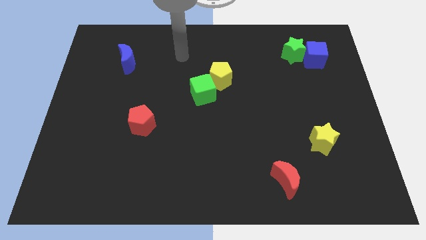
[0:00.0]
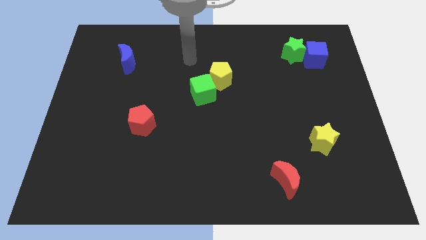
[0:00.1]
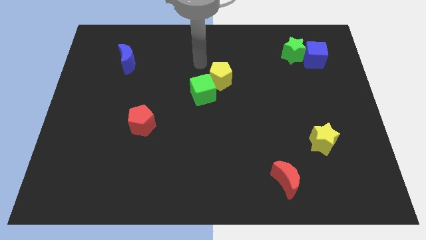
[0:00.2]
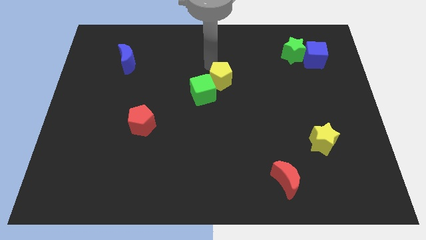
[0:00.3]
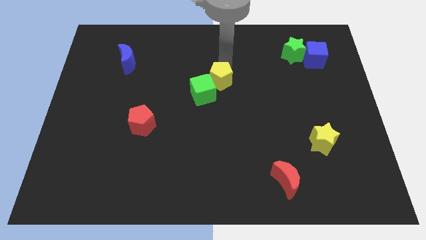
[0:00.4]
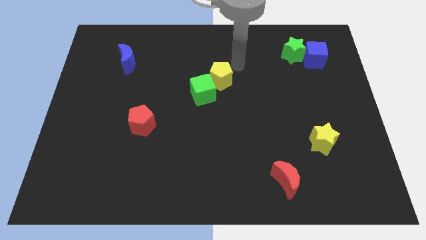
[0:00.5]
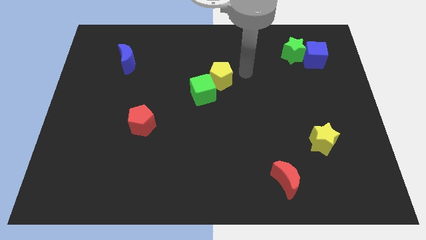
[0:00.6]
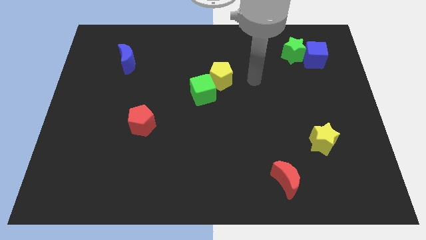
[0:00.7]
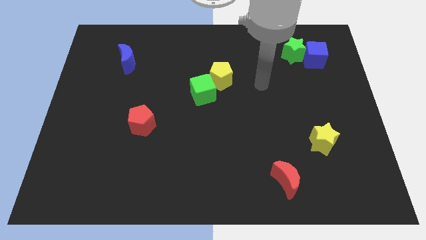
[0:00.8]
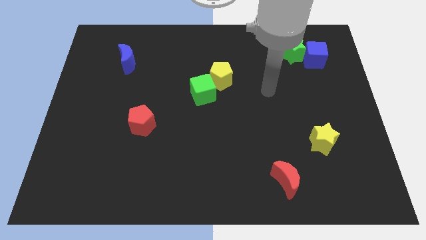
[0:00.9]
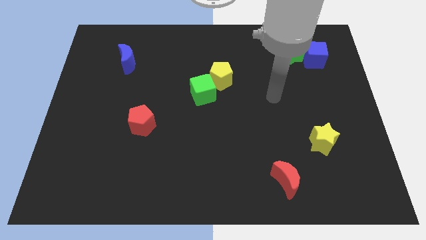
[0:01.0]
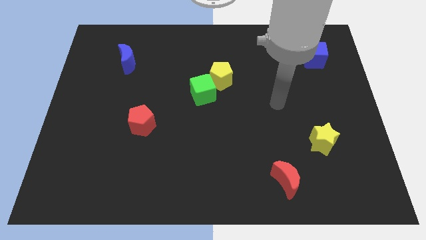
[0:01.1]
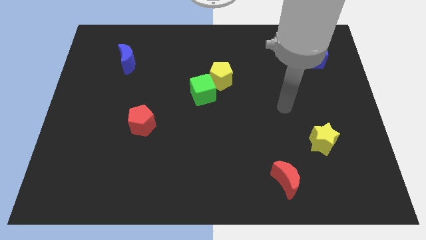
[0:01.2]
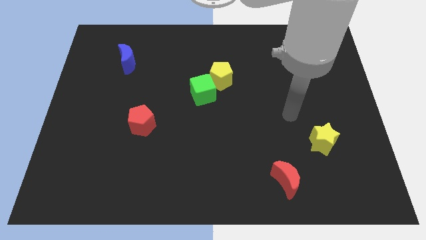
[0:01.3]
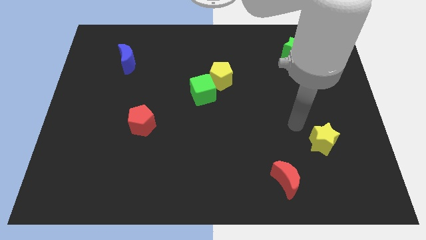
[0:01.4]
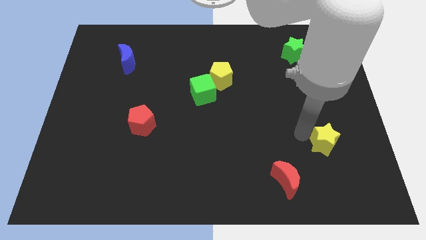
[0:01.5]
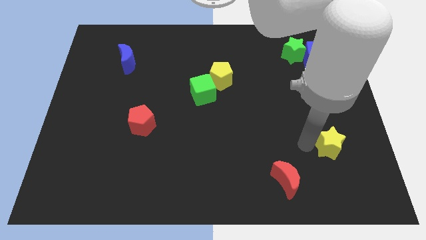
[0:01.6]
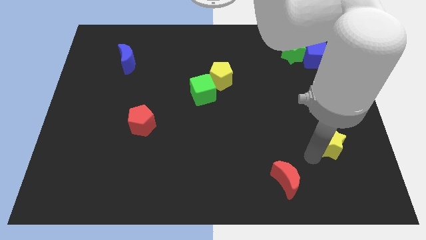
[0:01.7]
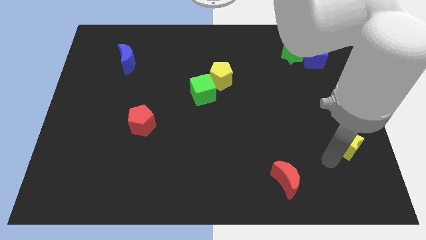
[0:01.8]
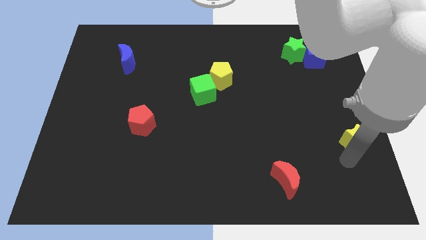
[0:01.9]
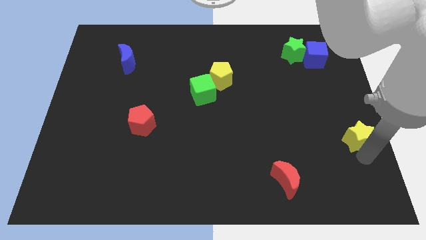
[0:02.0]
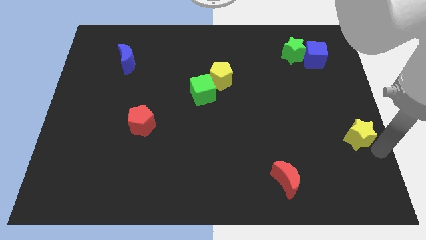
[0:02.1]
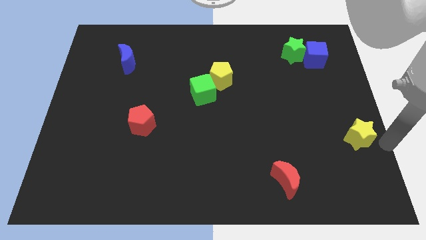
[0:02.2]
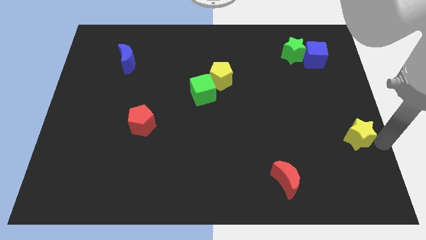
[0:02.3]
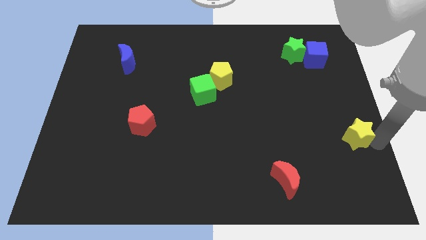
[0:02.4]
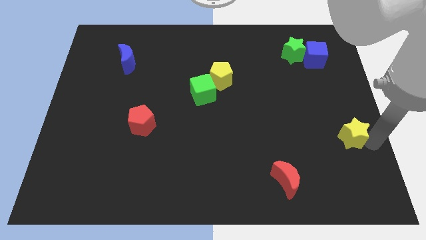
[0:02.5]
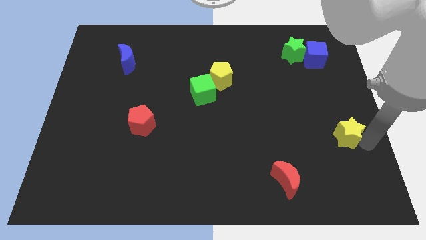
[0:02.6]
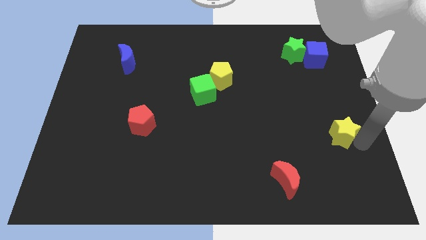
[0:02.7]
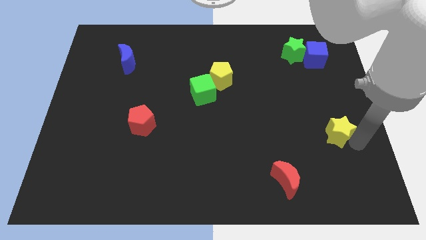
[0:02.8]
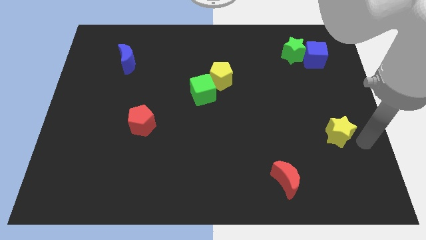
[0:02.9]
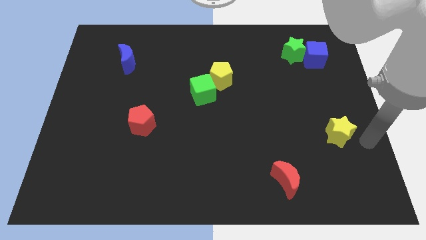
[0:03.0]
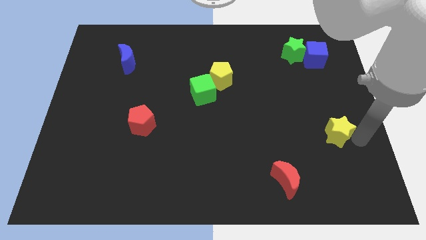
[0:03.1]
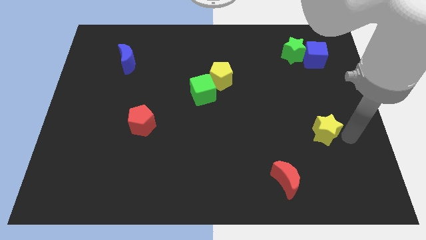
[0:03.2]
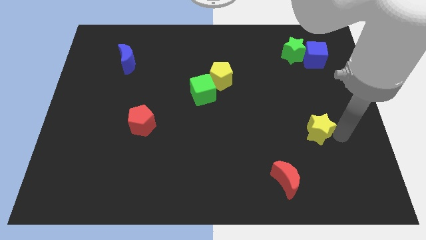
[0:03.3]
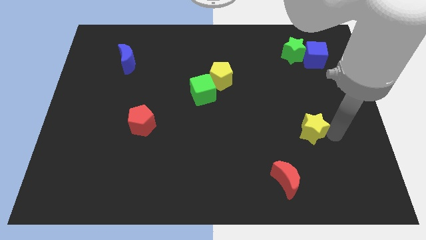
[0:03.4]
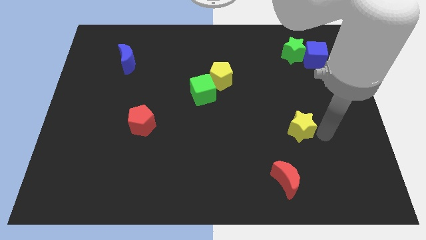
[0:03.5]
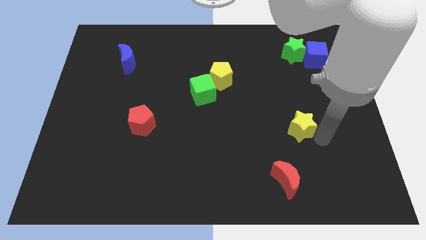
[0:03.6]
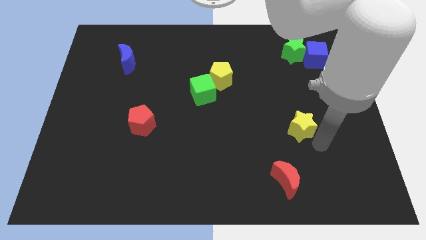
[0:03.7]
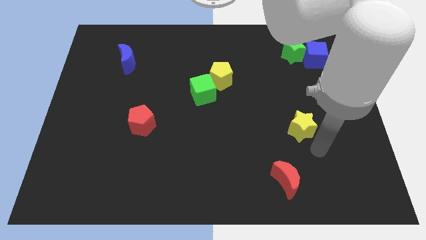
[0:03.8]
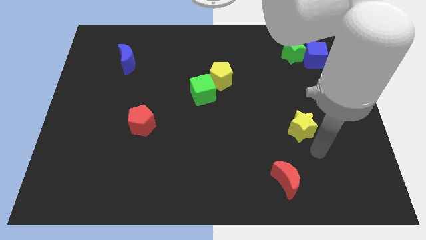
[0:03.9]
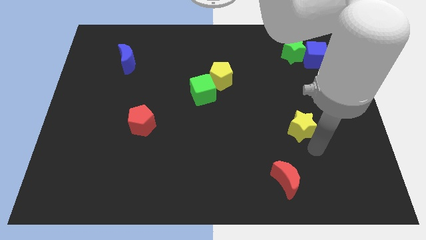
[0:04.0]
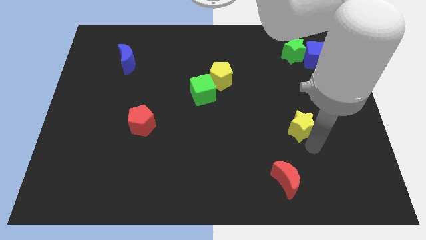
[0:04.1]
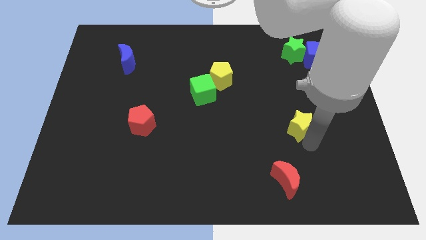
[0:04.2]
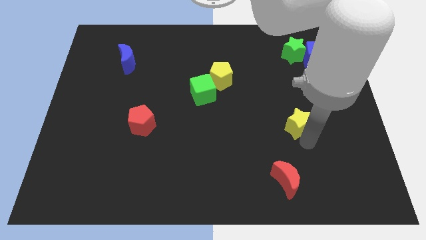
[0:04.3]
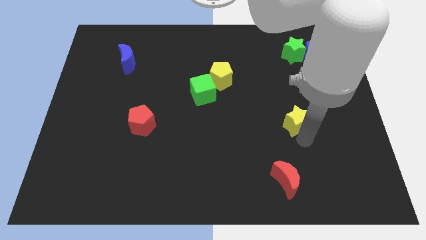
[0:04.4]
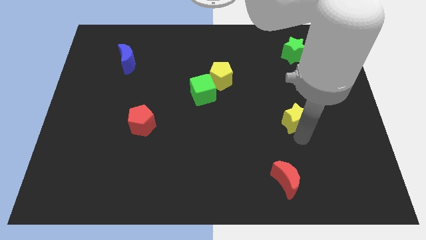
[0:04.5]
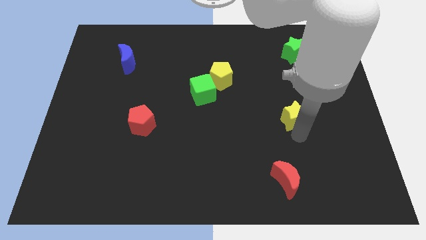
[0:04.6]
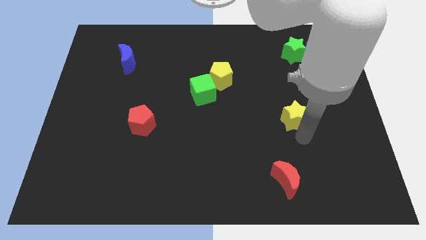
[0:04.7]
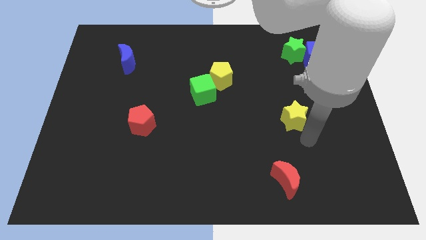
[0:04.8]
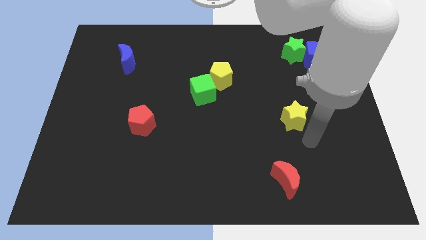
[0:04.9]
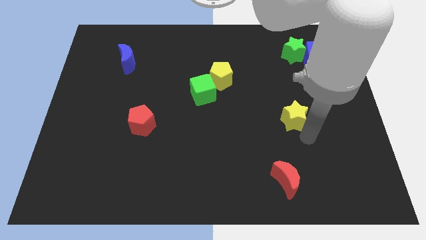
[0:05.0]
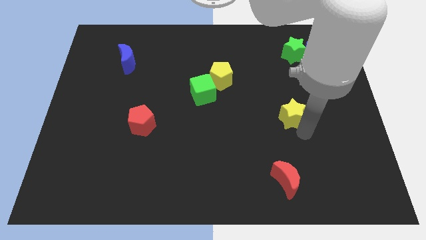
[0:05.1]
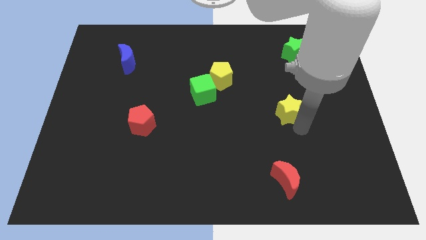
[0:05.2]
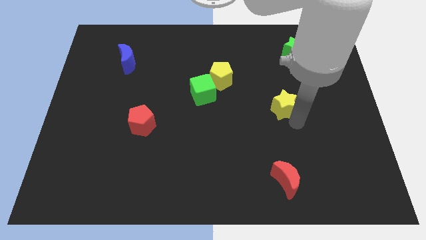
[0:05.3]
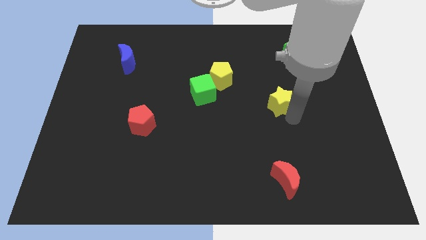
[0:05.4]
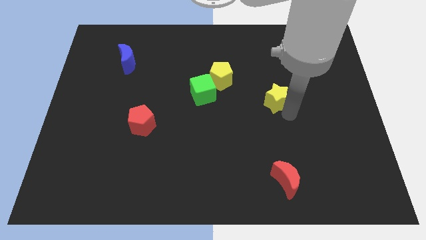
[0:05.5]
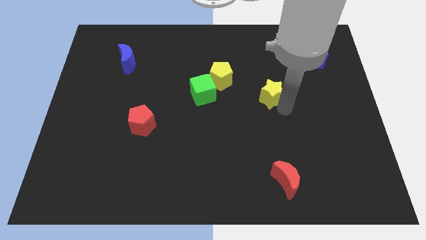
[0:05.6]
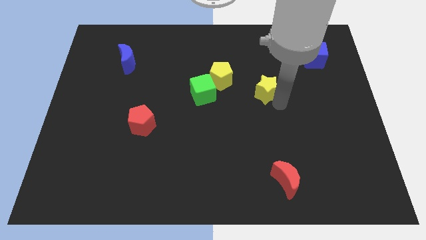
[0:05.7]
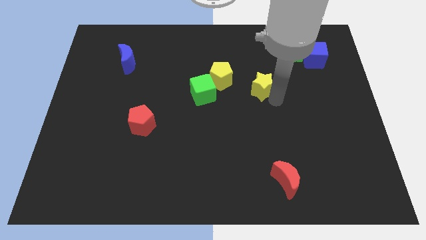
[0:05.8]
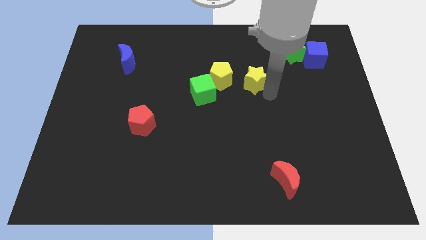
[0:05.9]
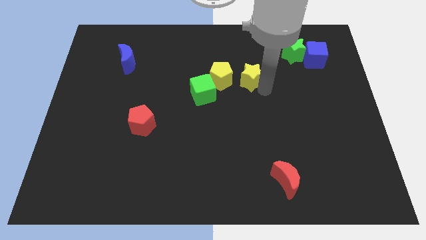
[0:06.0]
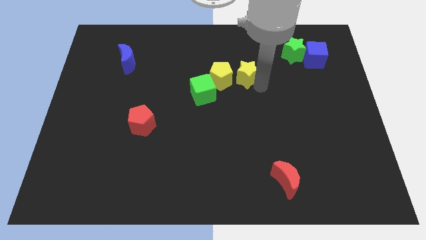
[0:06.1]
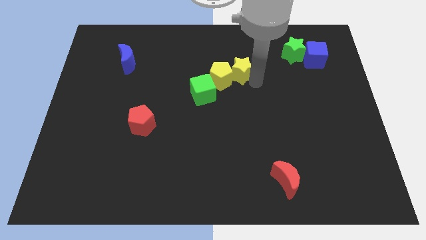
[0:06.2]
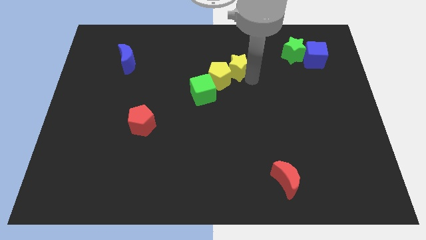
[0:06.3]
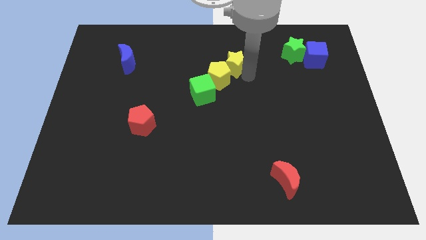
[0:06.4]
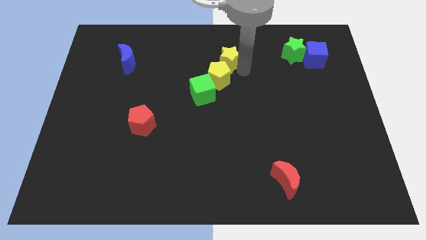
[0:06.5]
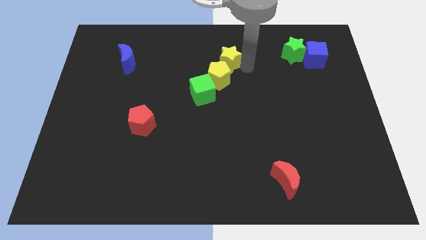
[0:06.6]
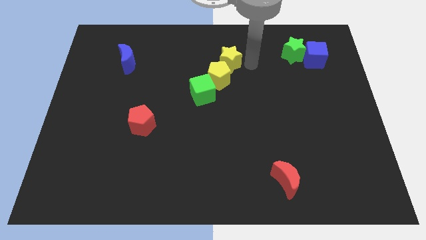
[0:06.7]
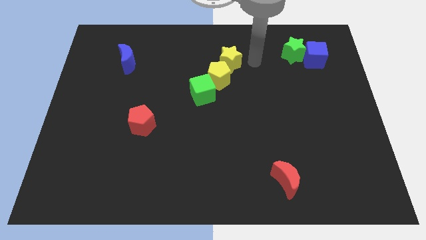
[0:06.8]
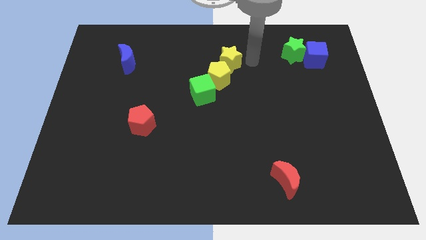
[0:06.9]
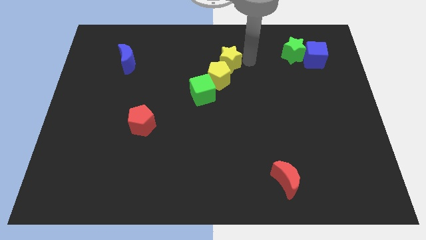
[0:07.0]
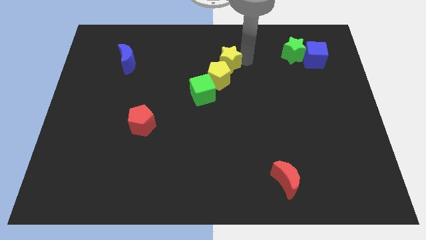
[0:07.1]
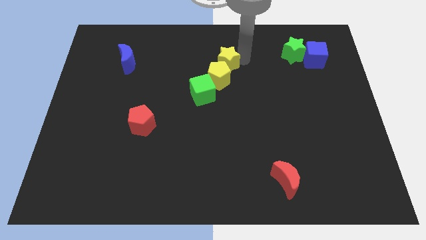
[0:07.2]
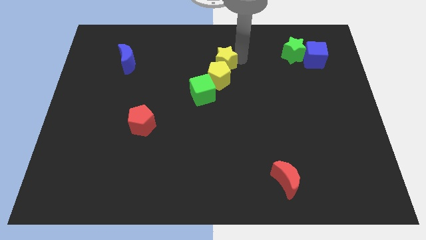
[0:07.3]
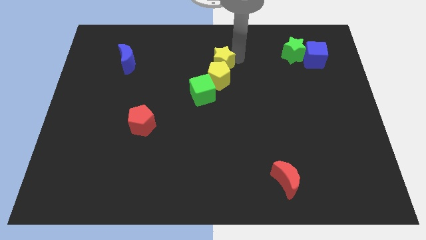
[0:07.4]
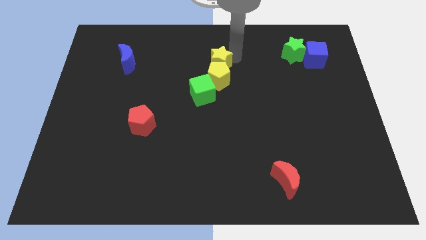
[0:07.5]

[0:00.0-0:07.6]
put the yellow star to the top side of the green cube

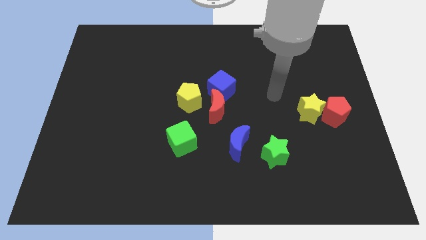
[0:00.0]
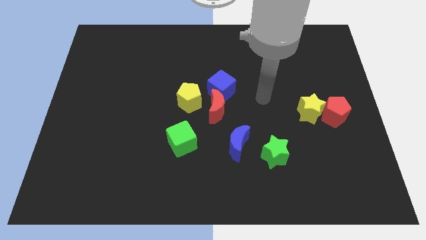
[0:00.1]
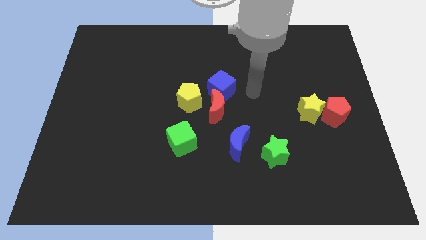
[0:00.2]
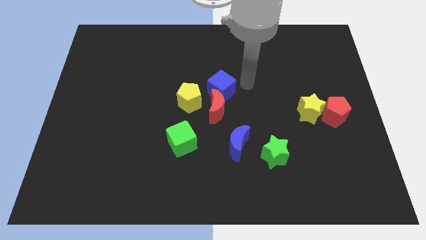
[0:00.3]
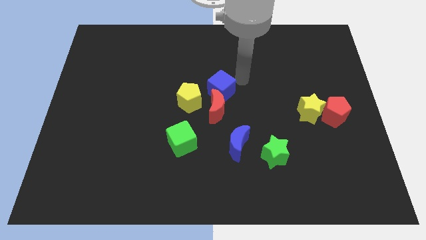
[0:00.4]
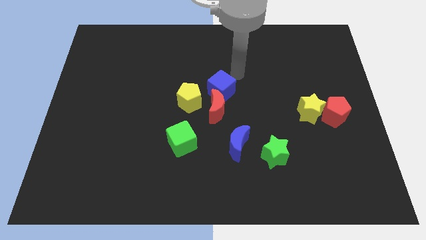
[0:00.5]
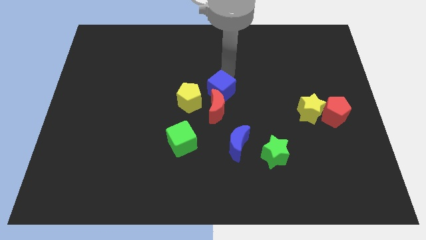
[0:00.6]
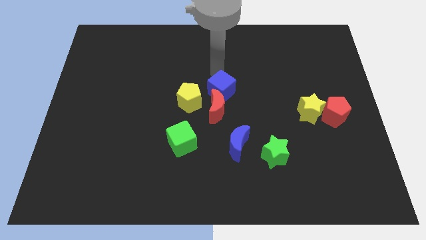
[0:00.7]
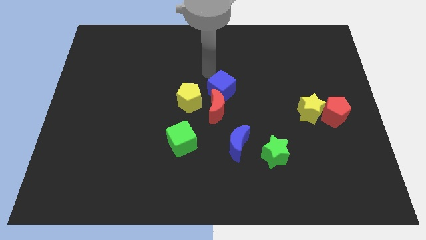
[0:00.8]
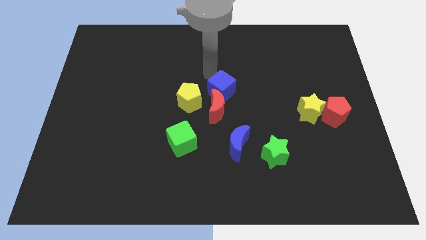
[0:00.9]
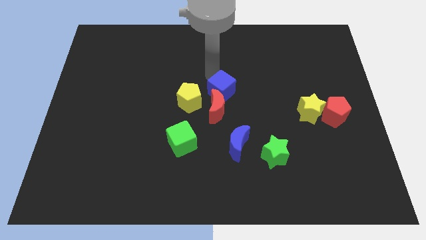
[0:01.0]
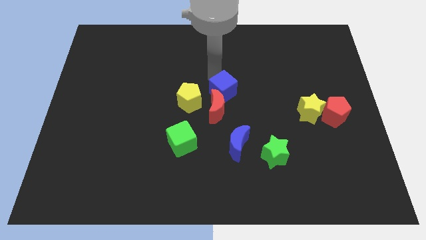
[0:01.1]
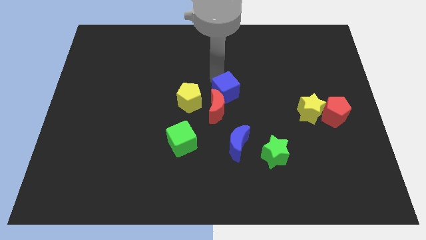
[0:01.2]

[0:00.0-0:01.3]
slide the blue cube above the blue moon
